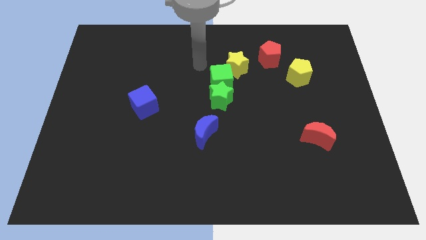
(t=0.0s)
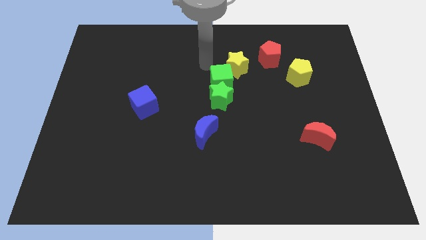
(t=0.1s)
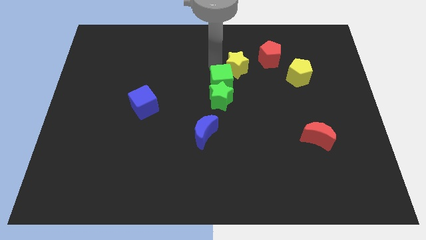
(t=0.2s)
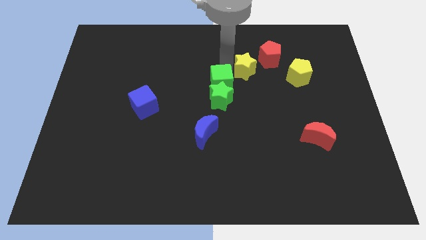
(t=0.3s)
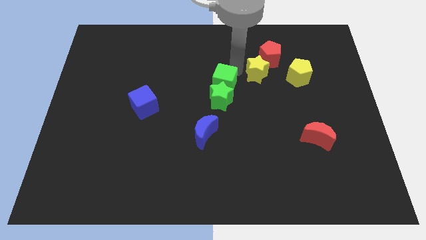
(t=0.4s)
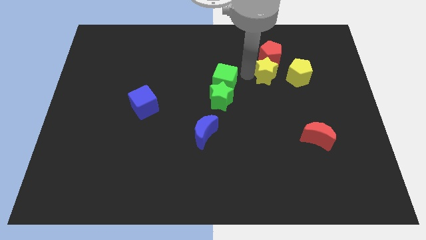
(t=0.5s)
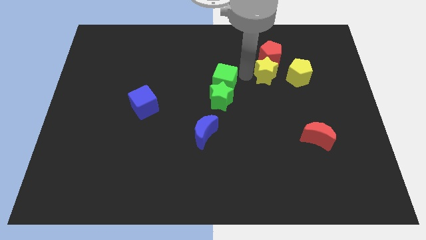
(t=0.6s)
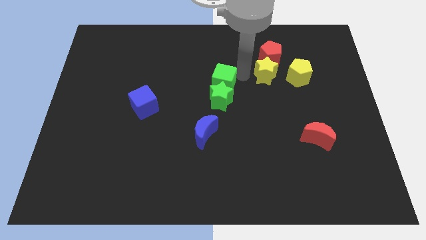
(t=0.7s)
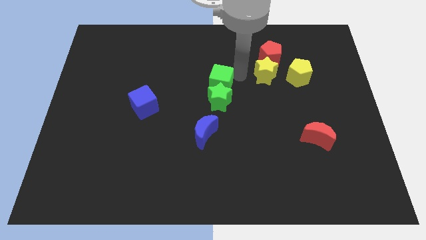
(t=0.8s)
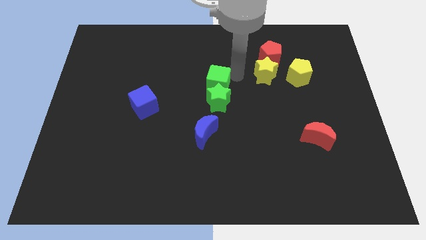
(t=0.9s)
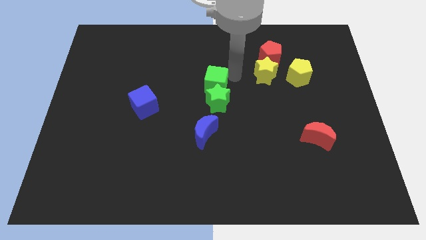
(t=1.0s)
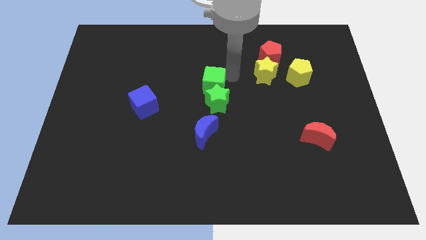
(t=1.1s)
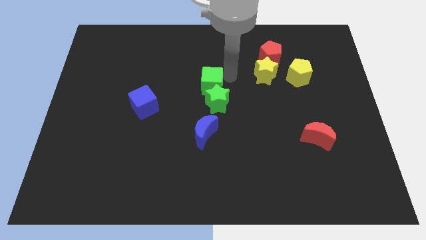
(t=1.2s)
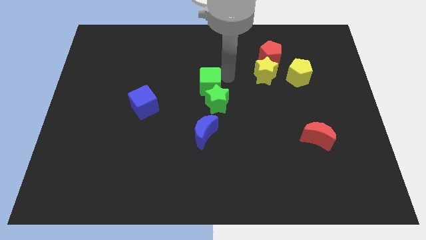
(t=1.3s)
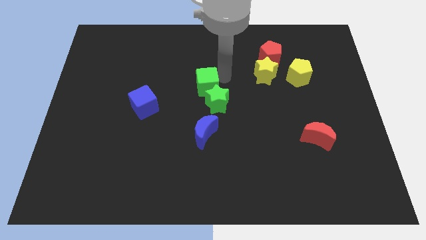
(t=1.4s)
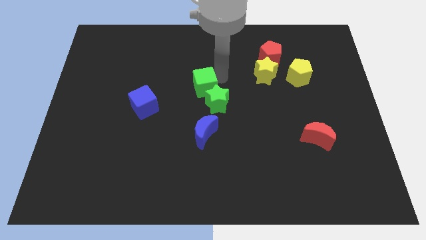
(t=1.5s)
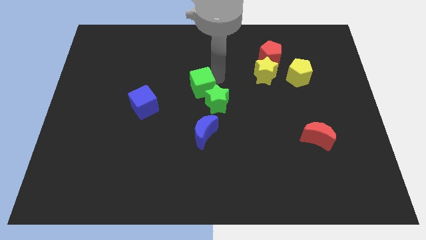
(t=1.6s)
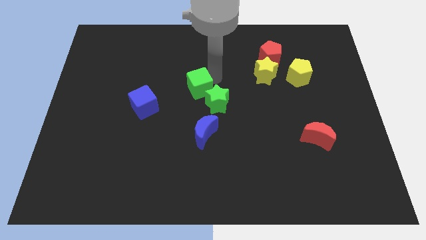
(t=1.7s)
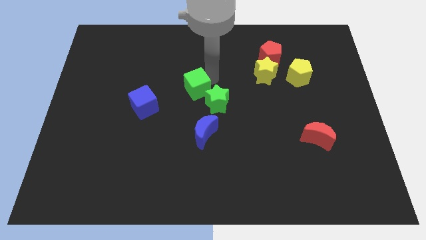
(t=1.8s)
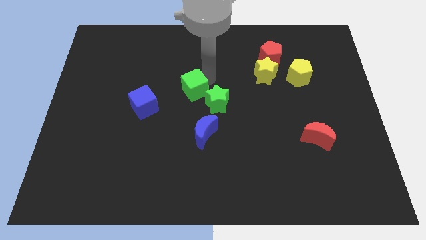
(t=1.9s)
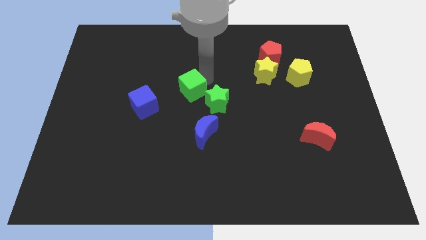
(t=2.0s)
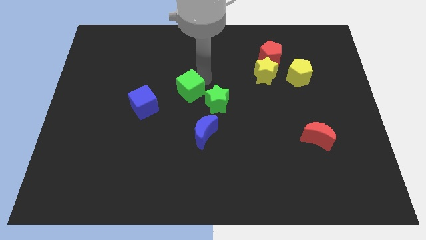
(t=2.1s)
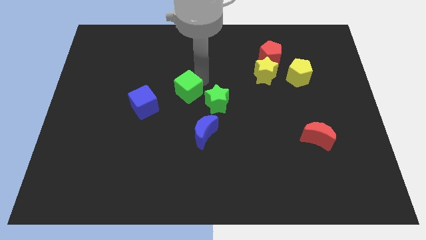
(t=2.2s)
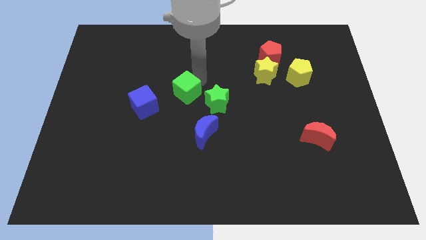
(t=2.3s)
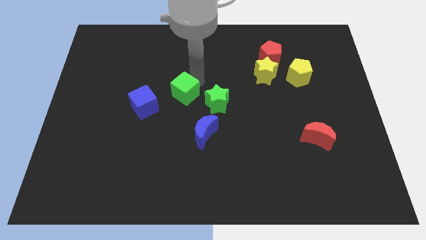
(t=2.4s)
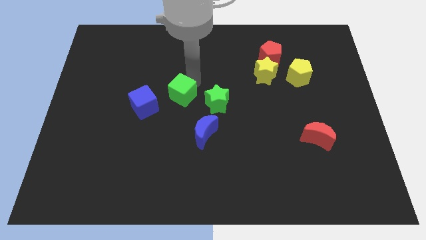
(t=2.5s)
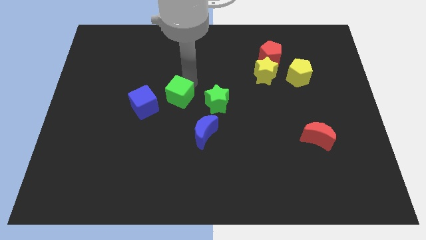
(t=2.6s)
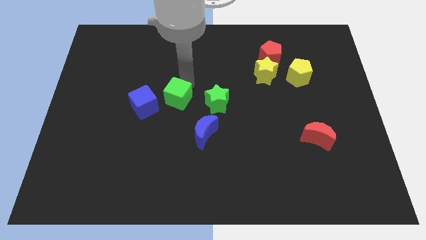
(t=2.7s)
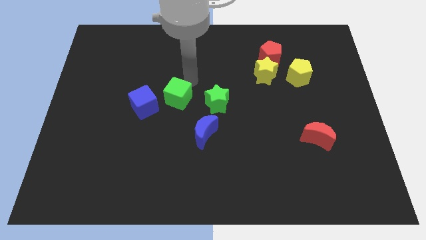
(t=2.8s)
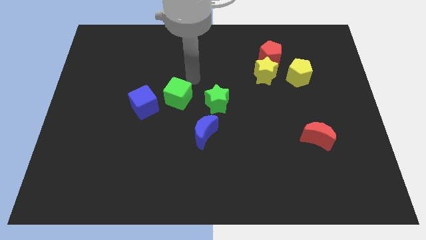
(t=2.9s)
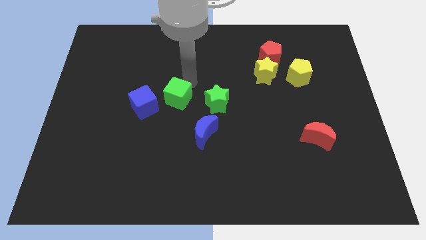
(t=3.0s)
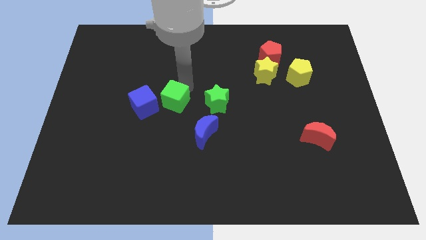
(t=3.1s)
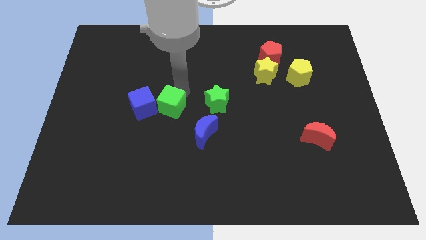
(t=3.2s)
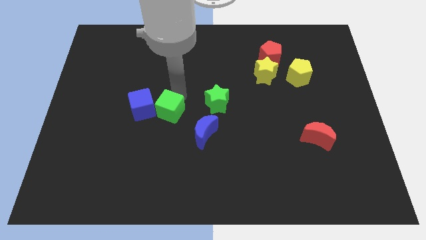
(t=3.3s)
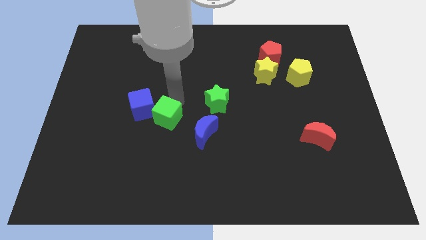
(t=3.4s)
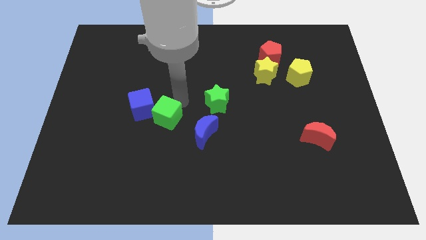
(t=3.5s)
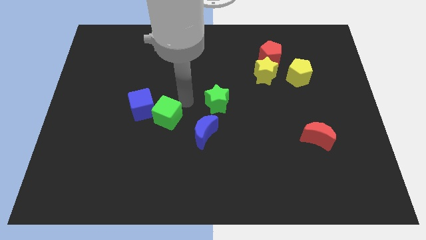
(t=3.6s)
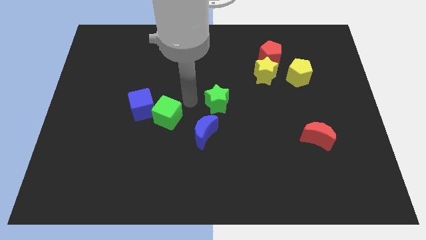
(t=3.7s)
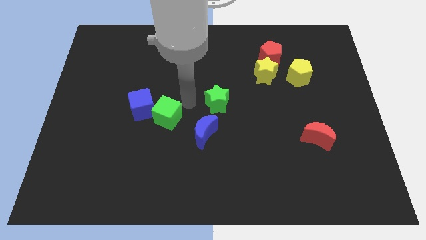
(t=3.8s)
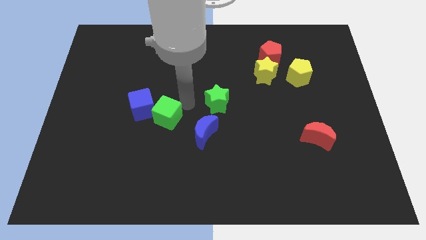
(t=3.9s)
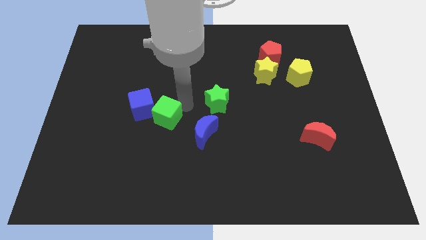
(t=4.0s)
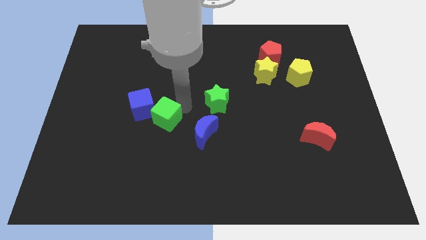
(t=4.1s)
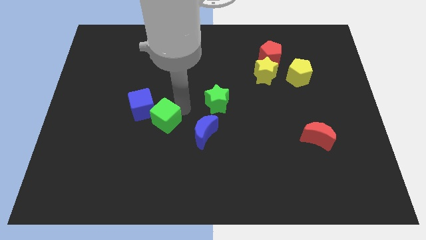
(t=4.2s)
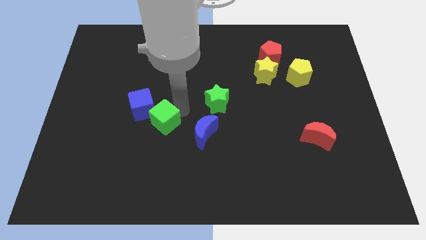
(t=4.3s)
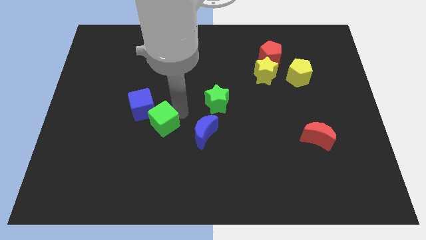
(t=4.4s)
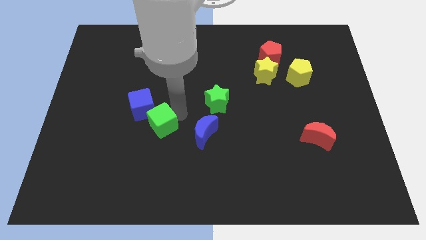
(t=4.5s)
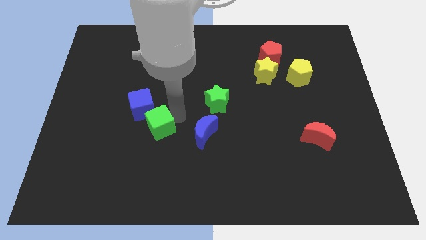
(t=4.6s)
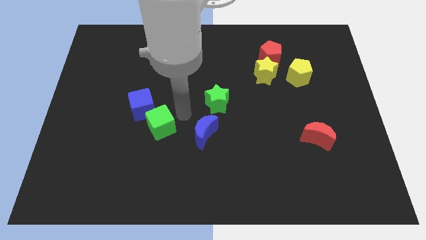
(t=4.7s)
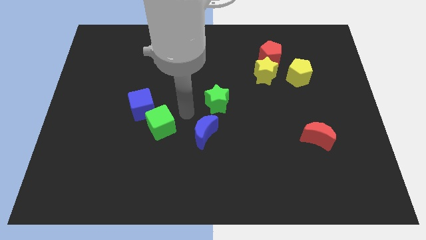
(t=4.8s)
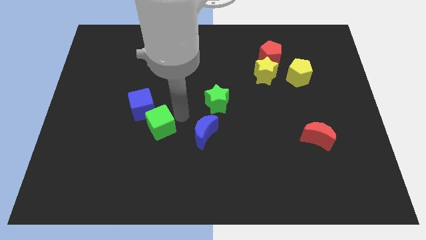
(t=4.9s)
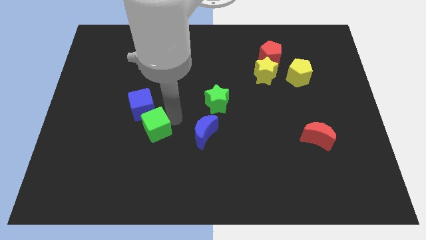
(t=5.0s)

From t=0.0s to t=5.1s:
move the green cube down and to the left diagonally

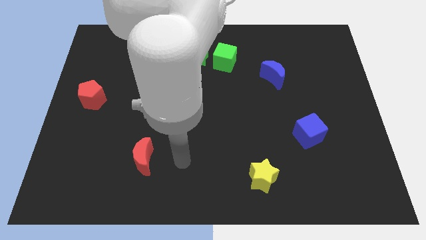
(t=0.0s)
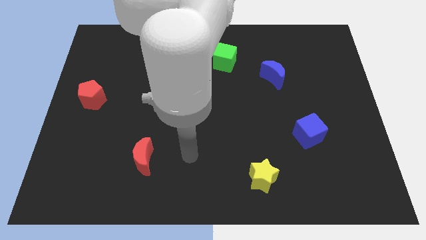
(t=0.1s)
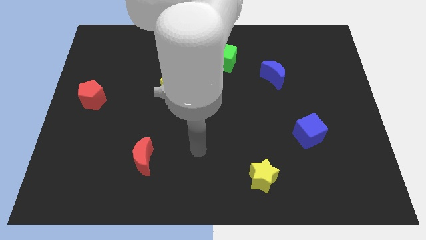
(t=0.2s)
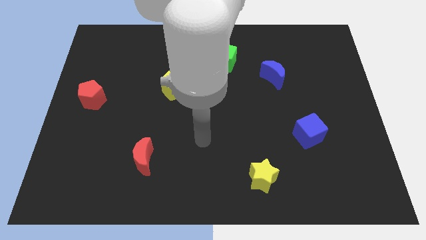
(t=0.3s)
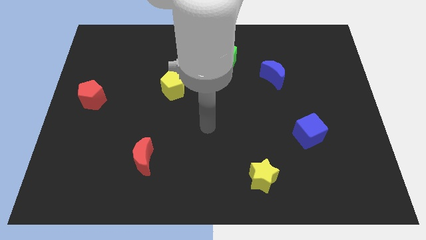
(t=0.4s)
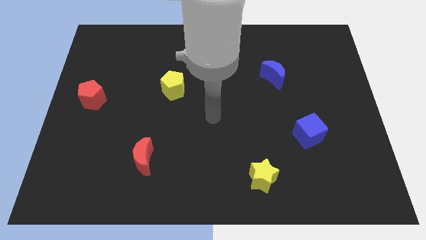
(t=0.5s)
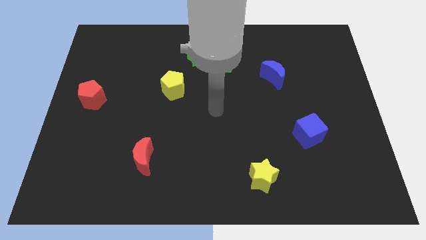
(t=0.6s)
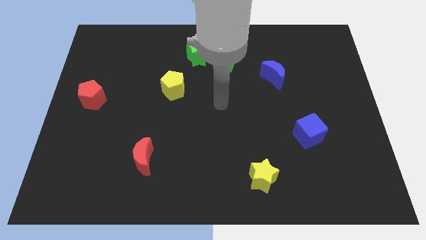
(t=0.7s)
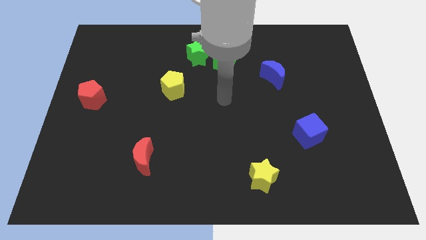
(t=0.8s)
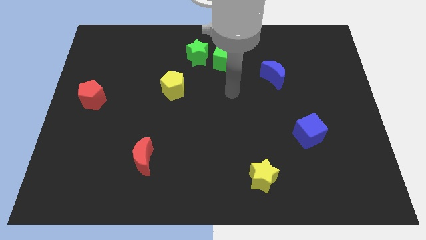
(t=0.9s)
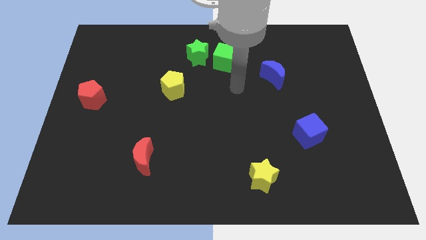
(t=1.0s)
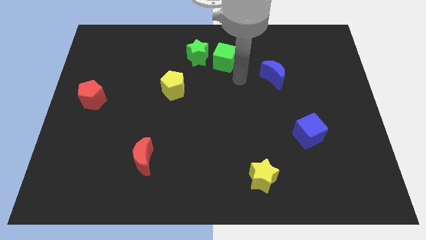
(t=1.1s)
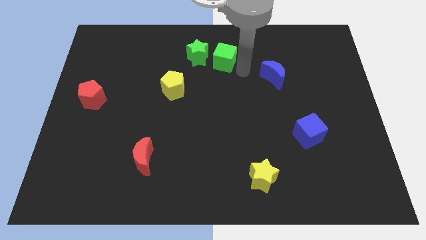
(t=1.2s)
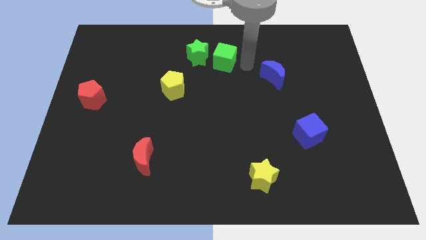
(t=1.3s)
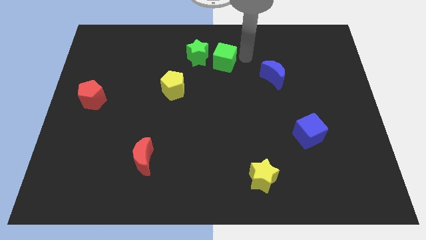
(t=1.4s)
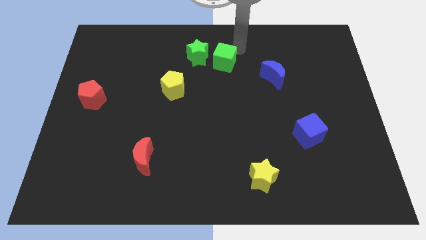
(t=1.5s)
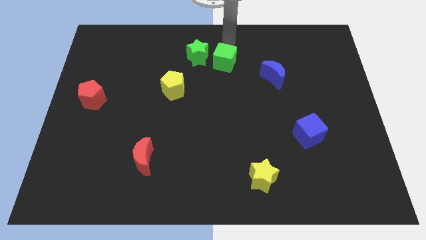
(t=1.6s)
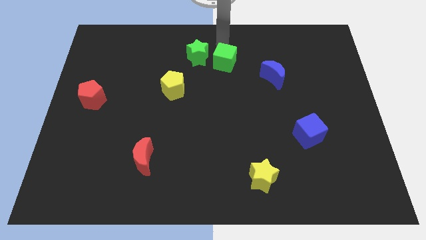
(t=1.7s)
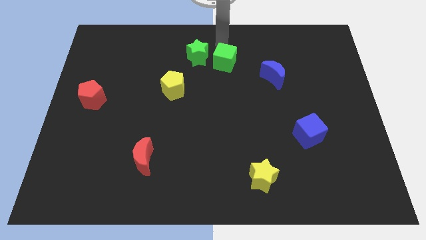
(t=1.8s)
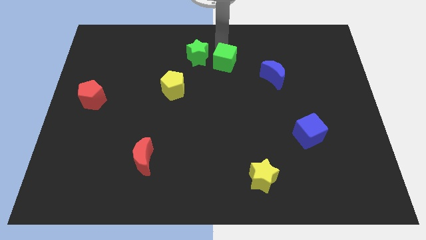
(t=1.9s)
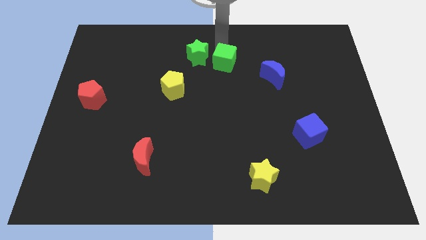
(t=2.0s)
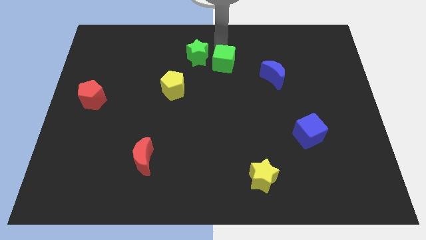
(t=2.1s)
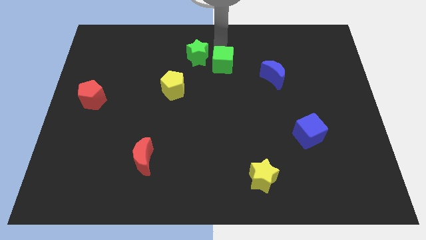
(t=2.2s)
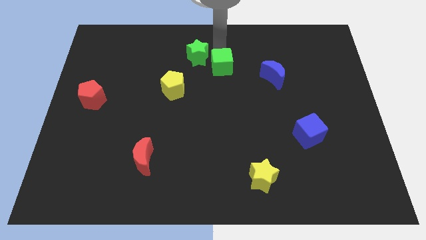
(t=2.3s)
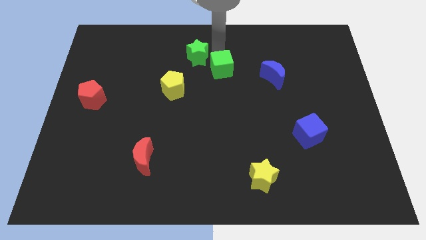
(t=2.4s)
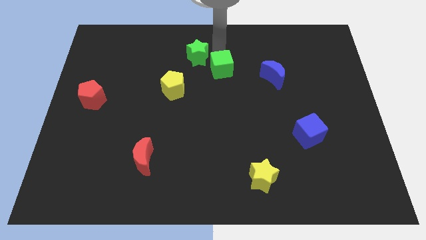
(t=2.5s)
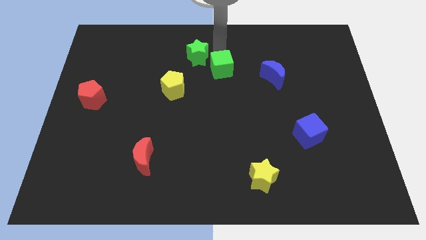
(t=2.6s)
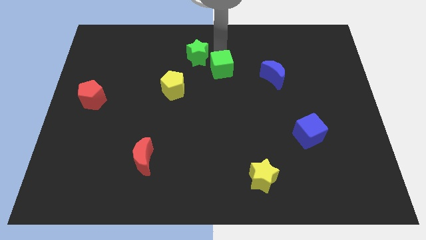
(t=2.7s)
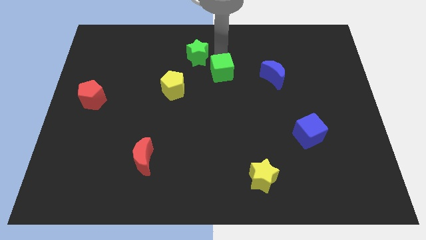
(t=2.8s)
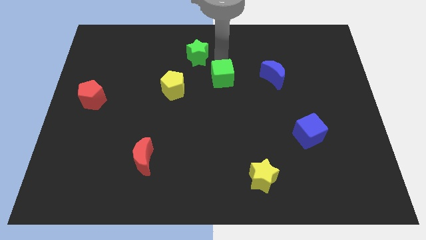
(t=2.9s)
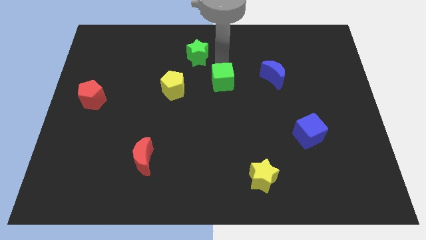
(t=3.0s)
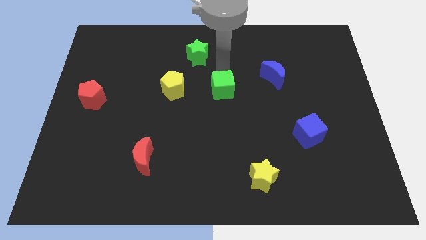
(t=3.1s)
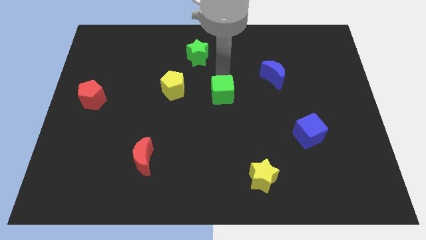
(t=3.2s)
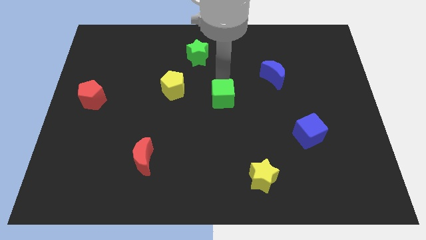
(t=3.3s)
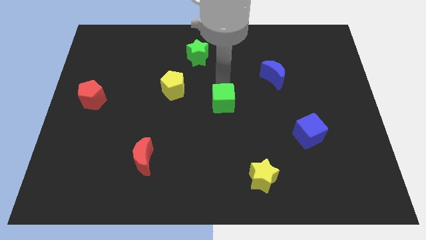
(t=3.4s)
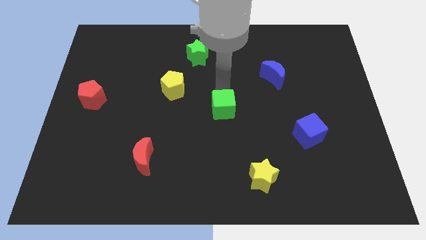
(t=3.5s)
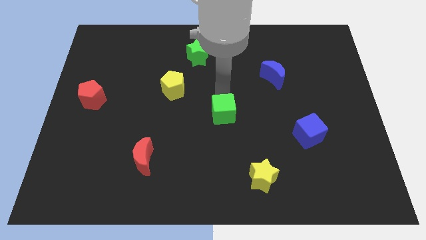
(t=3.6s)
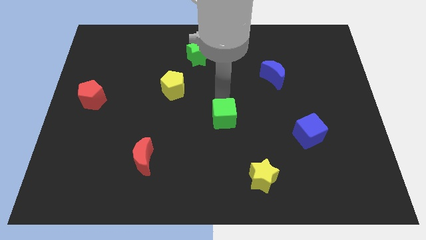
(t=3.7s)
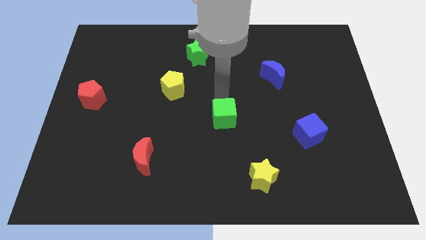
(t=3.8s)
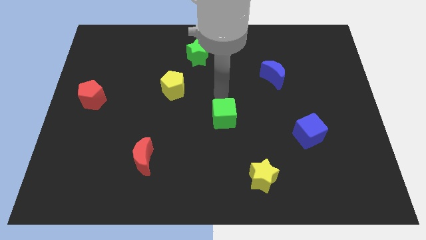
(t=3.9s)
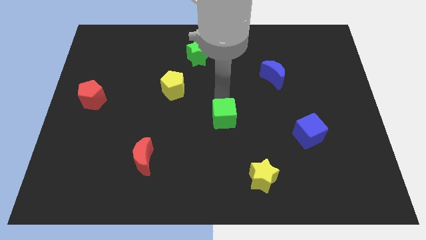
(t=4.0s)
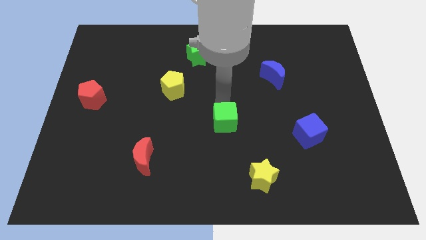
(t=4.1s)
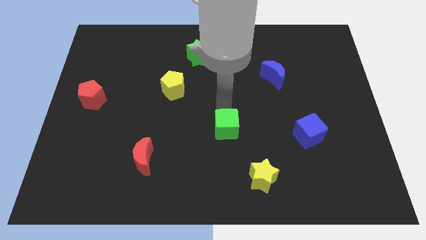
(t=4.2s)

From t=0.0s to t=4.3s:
move the green cube downwards
